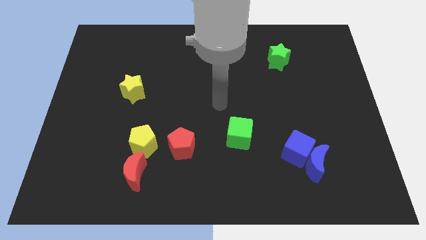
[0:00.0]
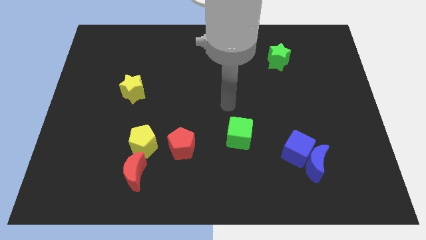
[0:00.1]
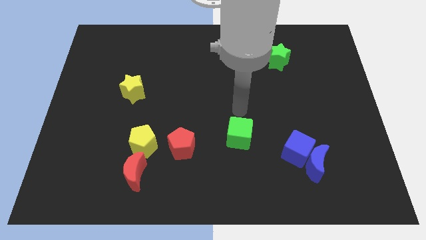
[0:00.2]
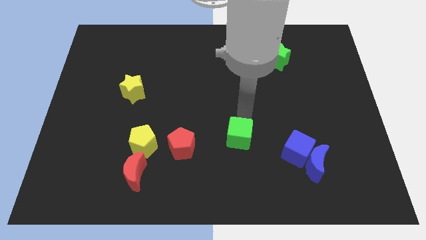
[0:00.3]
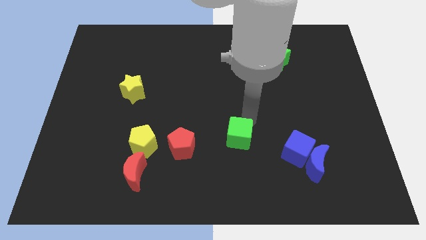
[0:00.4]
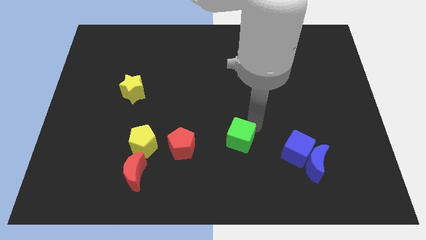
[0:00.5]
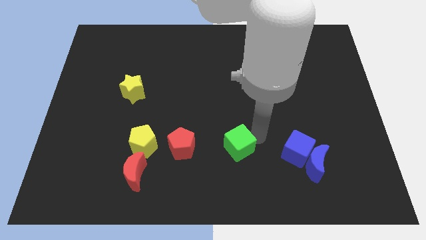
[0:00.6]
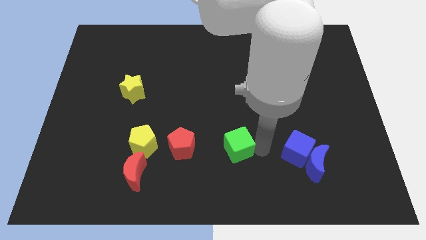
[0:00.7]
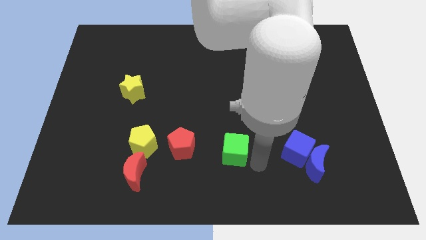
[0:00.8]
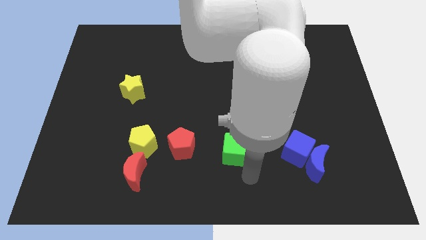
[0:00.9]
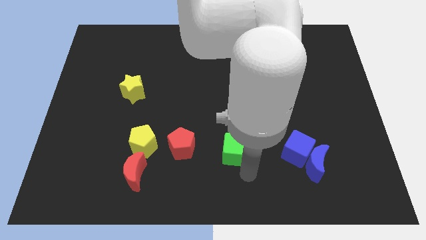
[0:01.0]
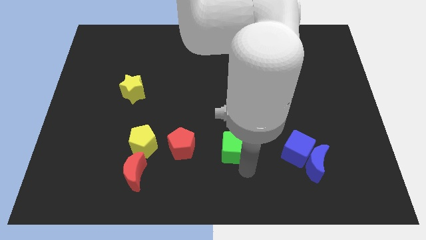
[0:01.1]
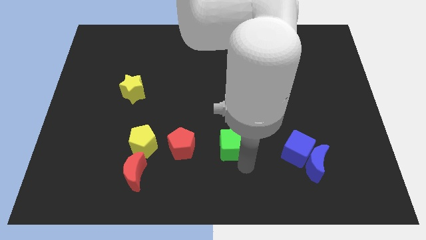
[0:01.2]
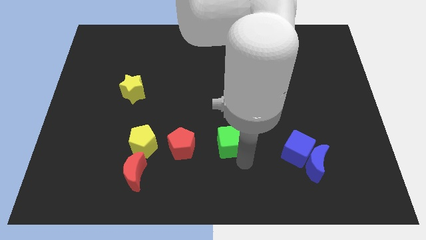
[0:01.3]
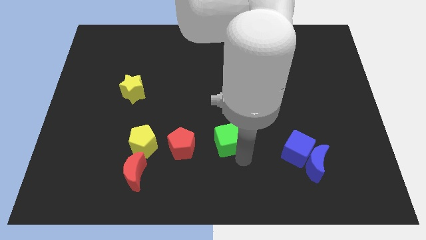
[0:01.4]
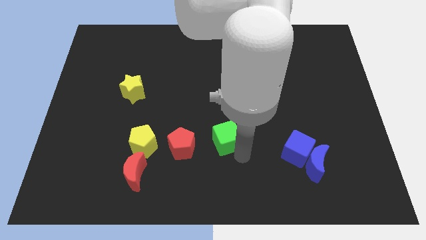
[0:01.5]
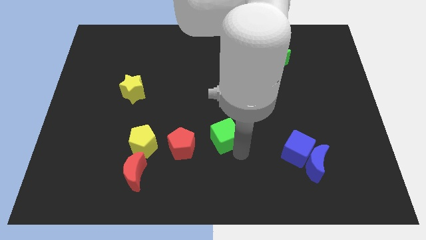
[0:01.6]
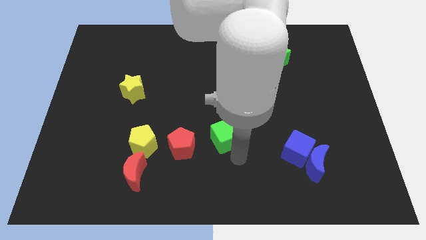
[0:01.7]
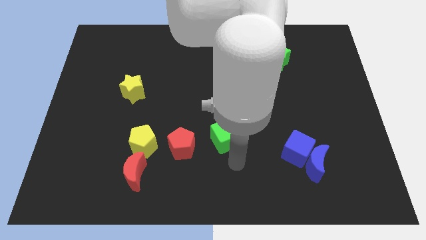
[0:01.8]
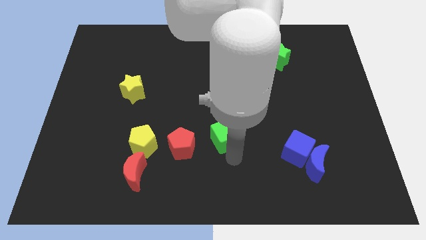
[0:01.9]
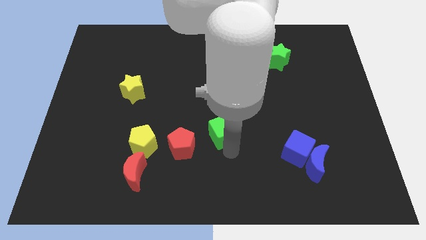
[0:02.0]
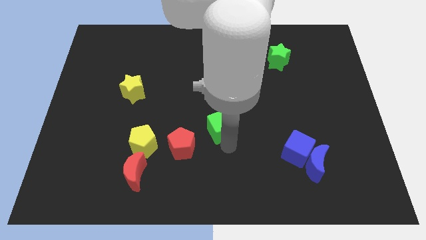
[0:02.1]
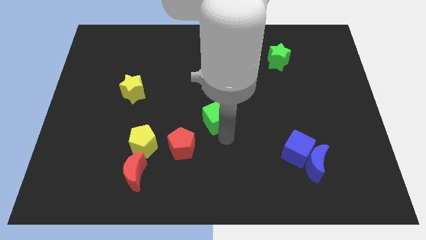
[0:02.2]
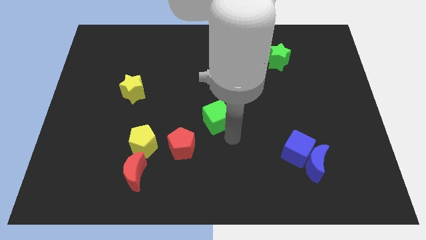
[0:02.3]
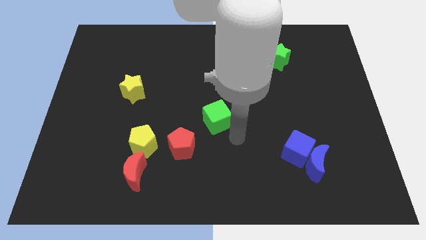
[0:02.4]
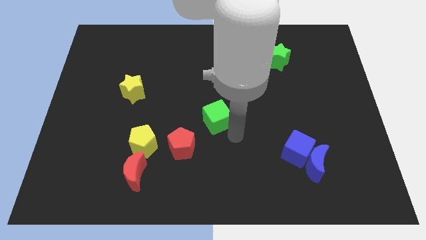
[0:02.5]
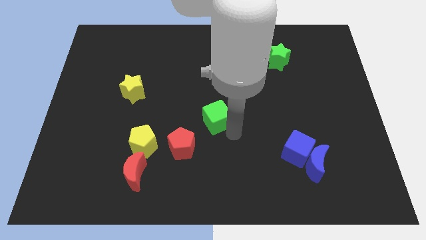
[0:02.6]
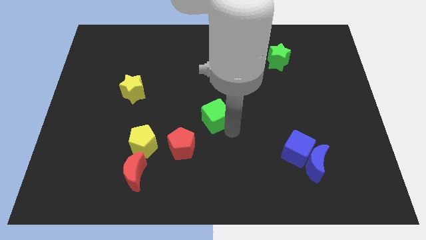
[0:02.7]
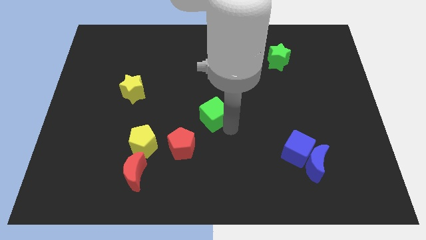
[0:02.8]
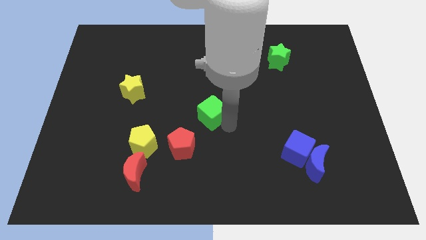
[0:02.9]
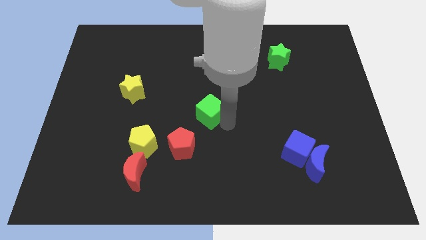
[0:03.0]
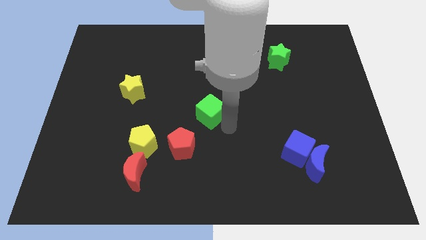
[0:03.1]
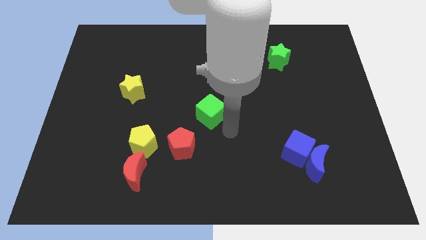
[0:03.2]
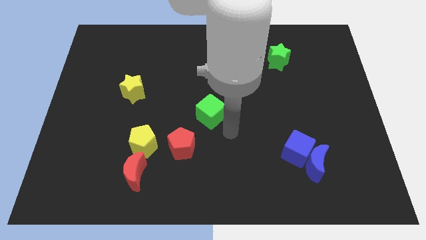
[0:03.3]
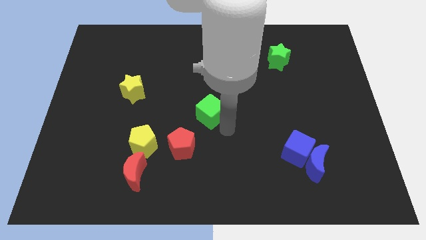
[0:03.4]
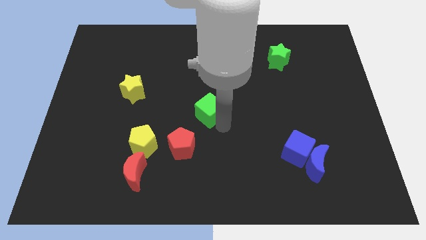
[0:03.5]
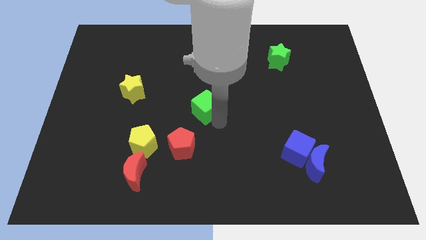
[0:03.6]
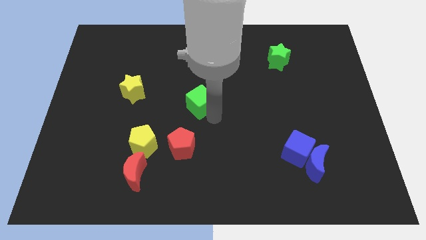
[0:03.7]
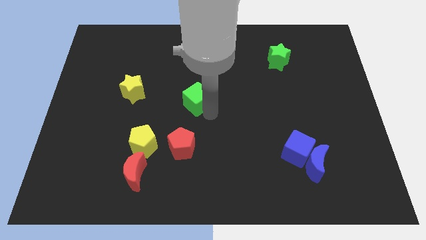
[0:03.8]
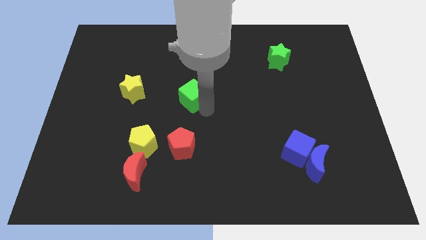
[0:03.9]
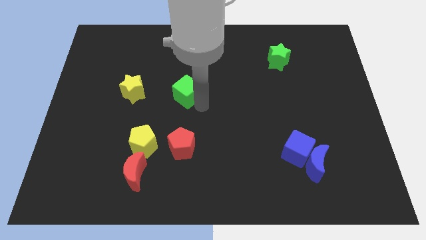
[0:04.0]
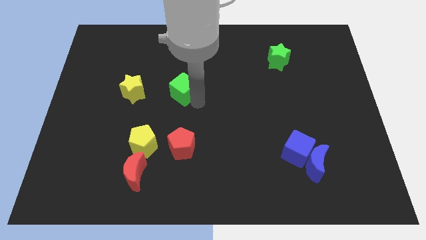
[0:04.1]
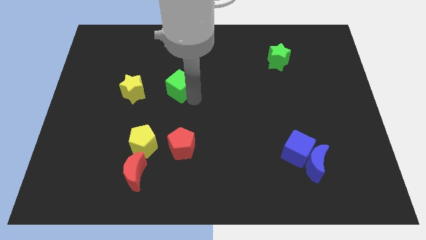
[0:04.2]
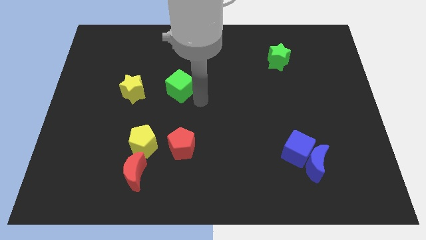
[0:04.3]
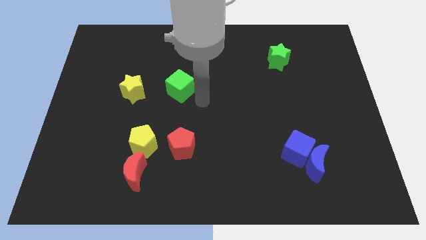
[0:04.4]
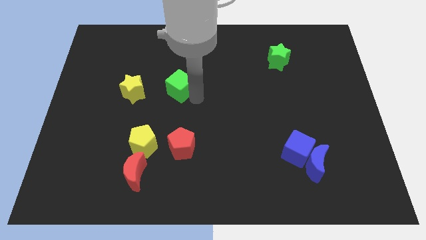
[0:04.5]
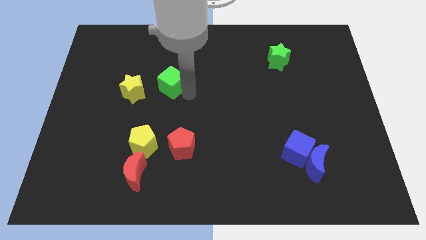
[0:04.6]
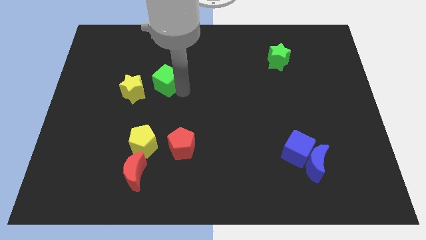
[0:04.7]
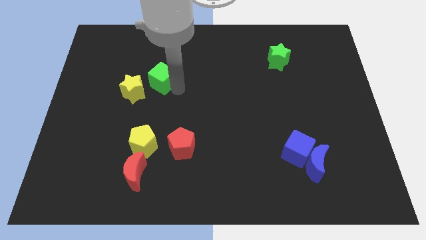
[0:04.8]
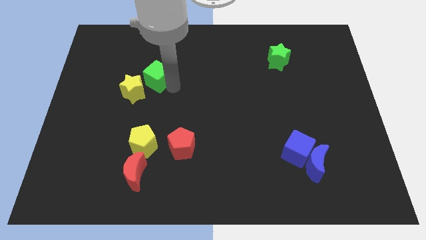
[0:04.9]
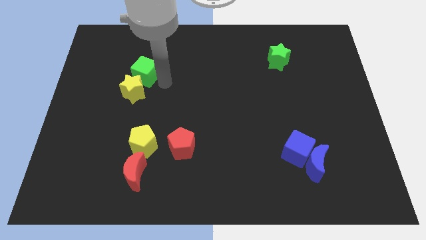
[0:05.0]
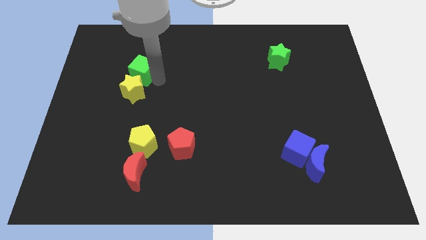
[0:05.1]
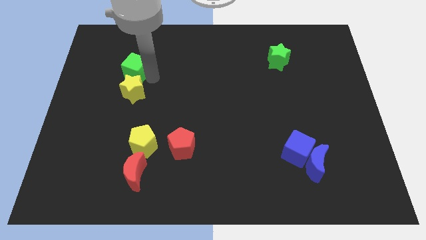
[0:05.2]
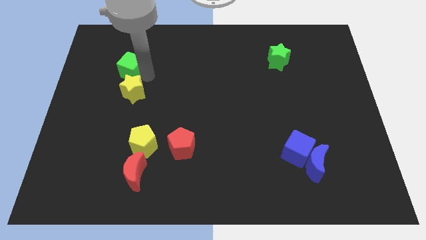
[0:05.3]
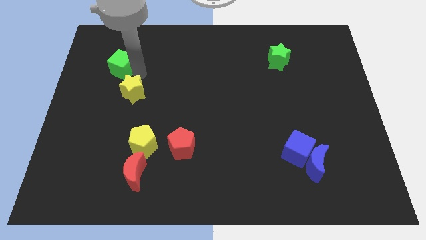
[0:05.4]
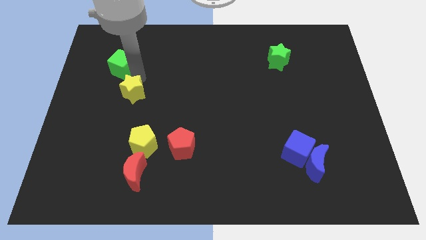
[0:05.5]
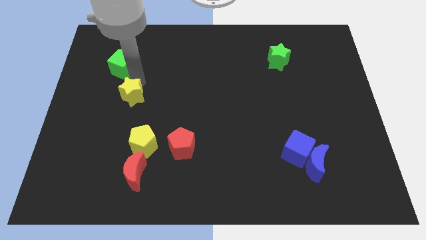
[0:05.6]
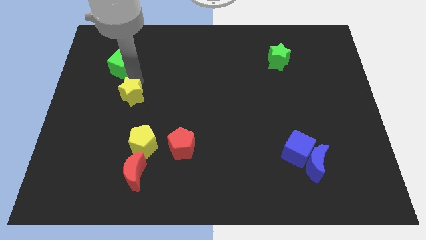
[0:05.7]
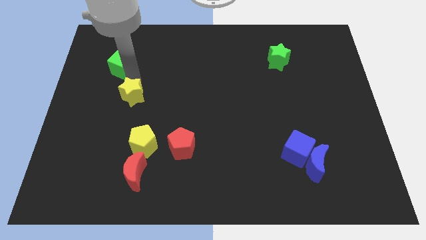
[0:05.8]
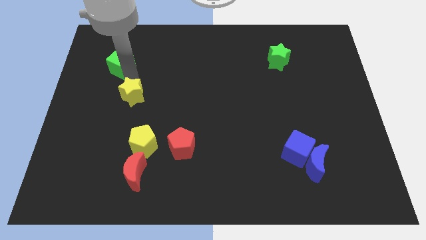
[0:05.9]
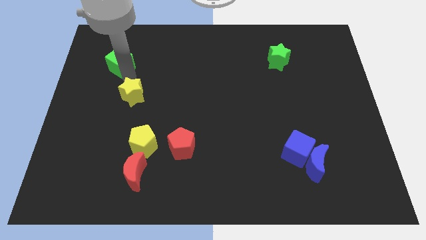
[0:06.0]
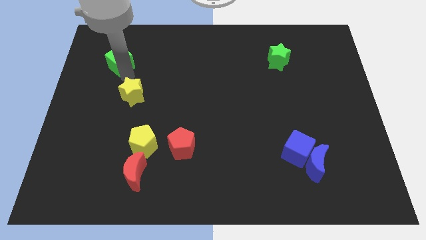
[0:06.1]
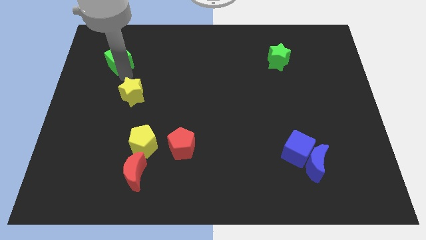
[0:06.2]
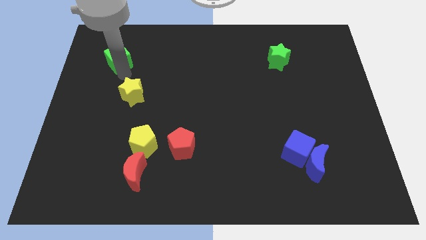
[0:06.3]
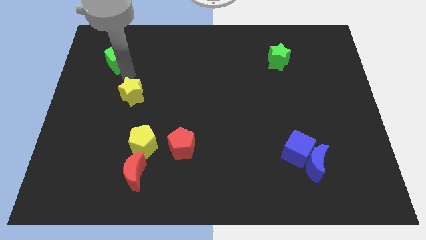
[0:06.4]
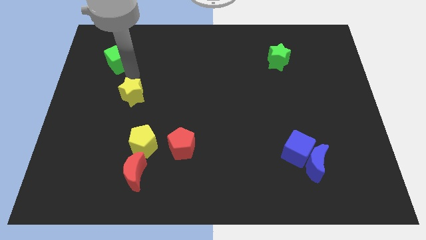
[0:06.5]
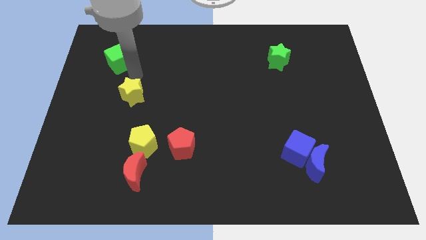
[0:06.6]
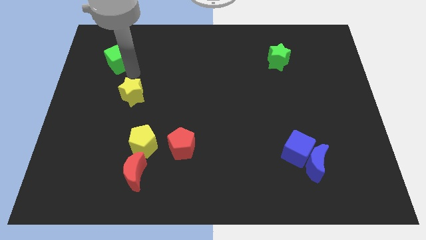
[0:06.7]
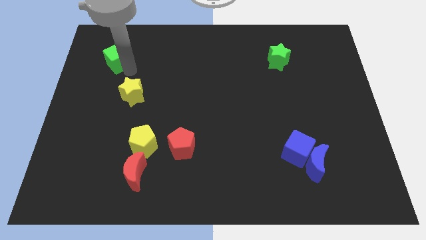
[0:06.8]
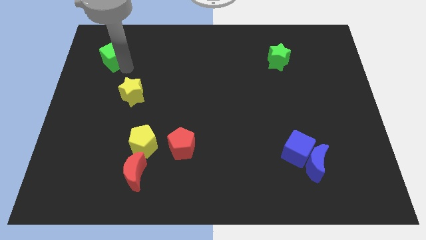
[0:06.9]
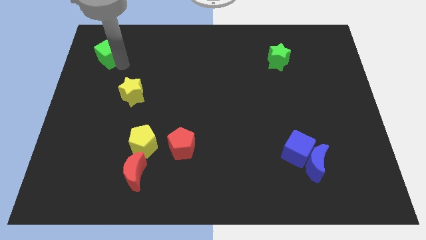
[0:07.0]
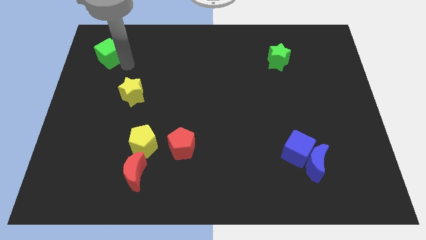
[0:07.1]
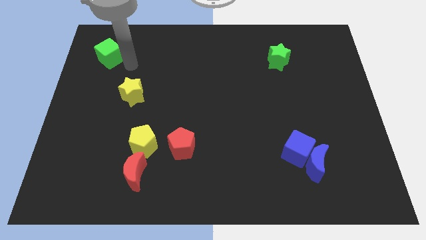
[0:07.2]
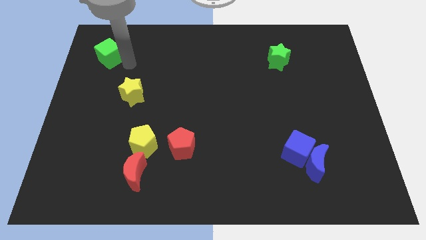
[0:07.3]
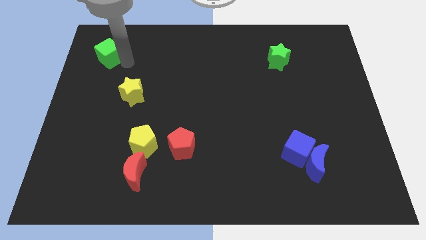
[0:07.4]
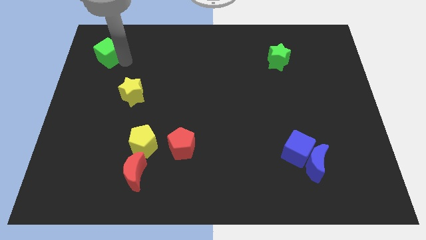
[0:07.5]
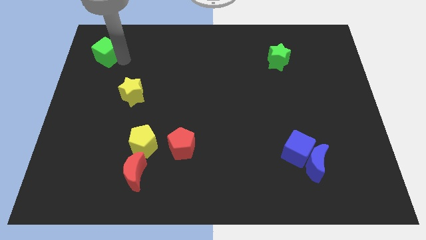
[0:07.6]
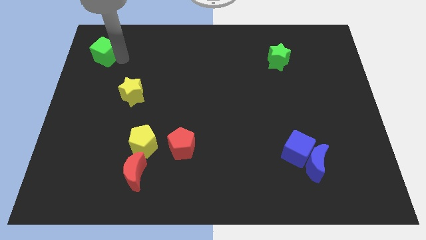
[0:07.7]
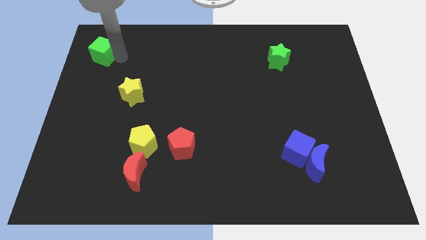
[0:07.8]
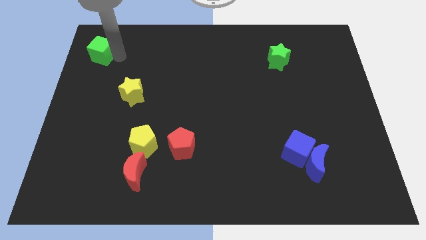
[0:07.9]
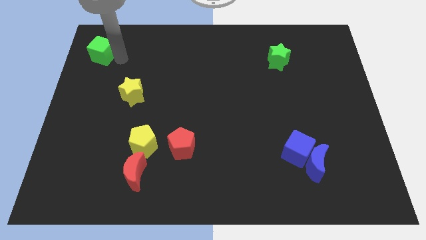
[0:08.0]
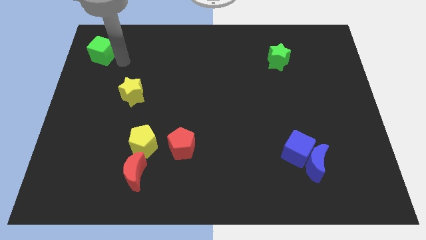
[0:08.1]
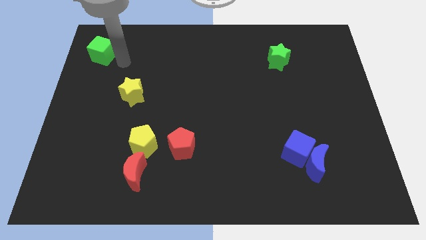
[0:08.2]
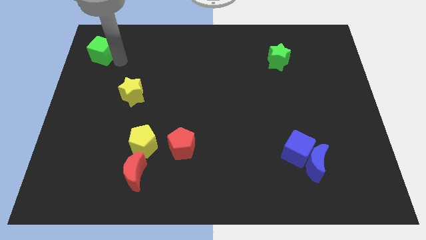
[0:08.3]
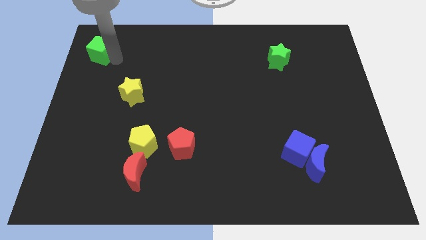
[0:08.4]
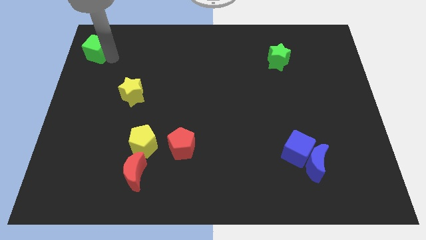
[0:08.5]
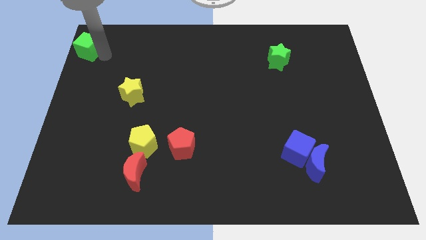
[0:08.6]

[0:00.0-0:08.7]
move the green cube to the top left of the board
